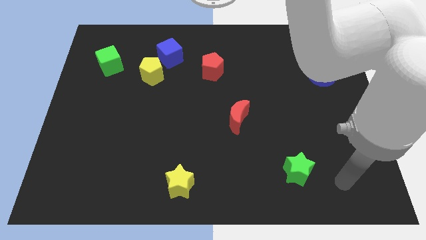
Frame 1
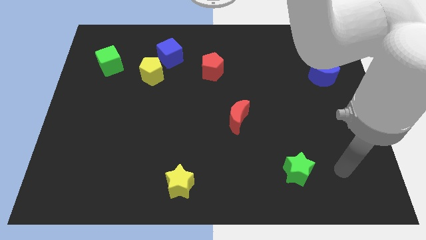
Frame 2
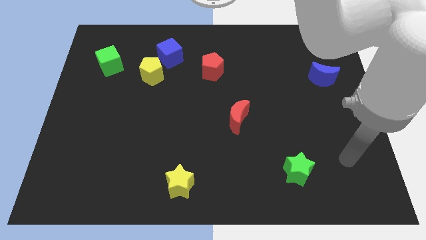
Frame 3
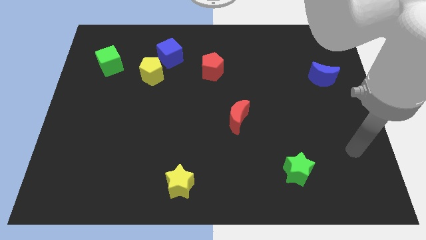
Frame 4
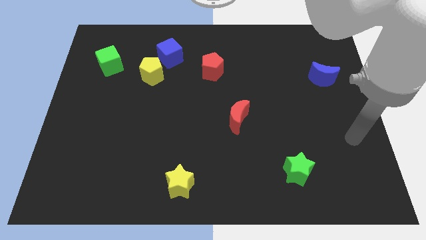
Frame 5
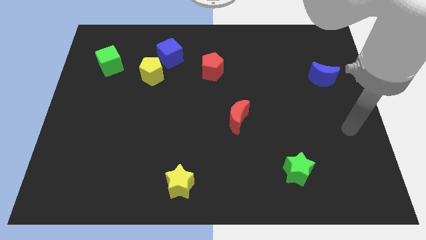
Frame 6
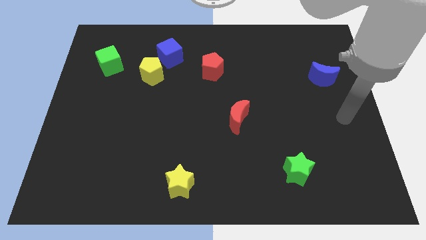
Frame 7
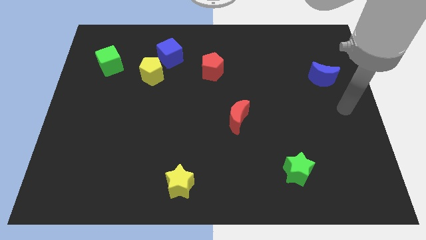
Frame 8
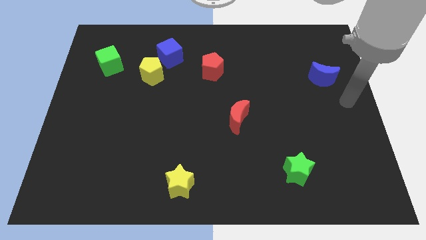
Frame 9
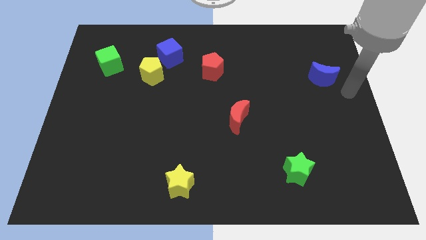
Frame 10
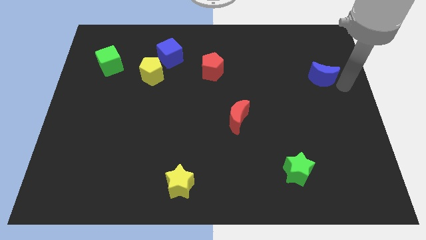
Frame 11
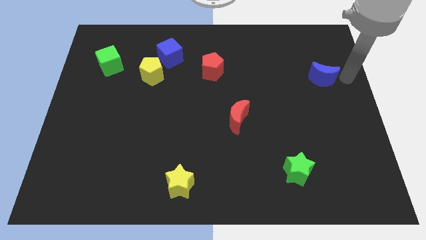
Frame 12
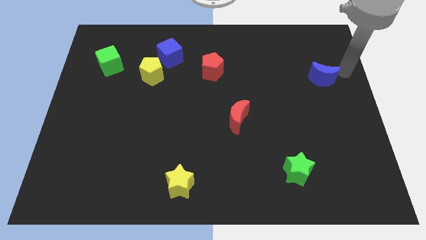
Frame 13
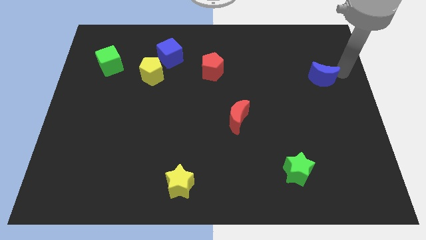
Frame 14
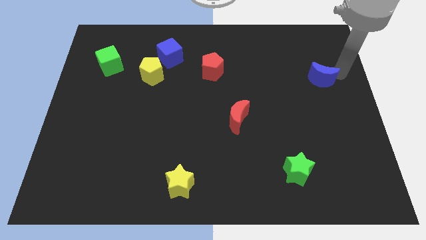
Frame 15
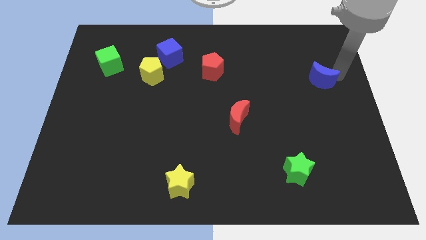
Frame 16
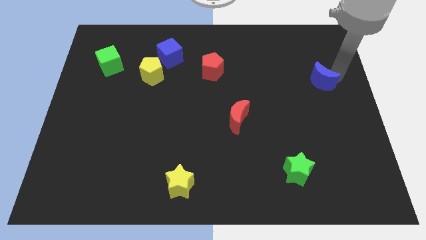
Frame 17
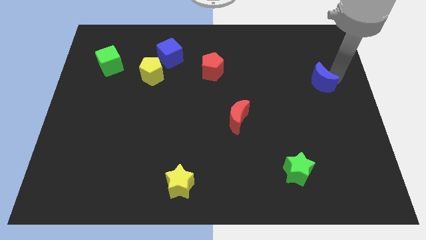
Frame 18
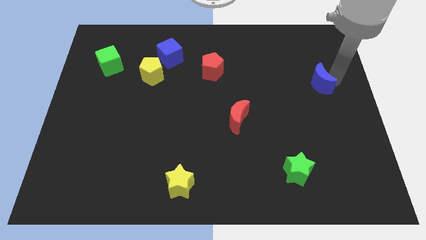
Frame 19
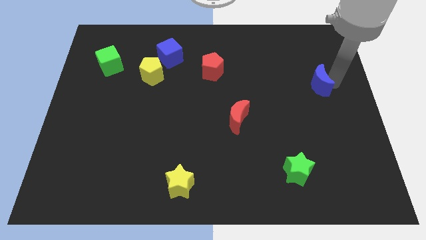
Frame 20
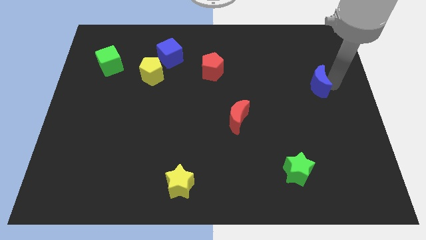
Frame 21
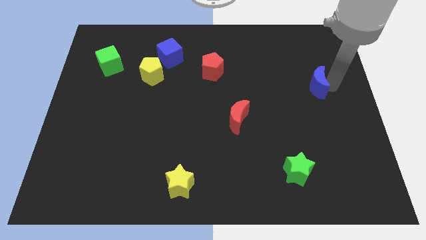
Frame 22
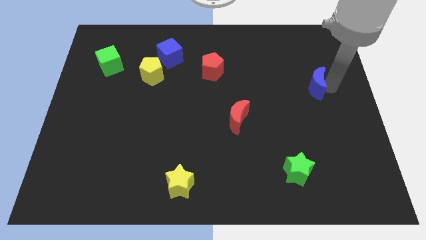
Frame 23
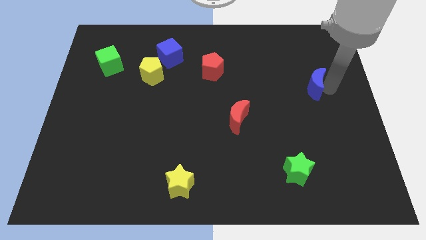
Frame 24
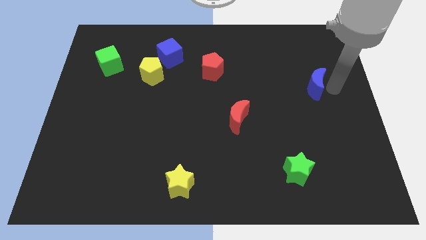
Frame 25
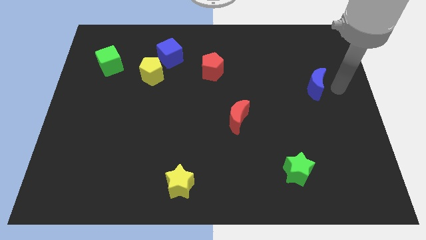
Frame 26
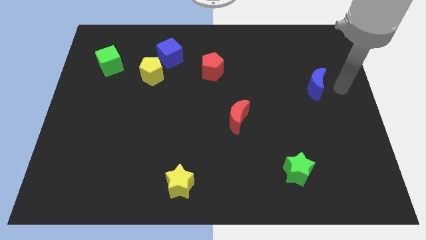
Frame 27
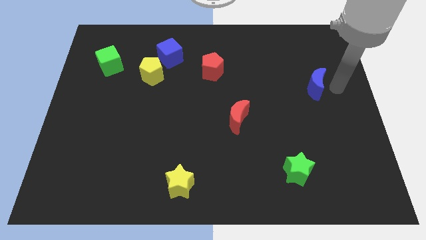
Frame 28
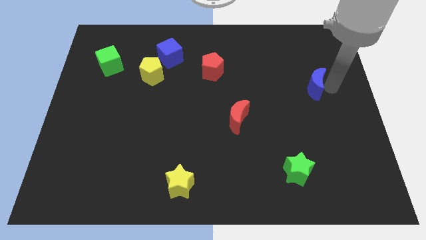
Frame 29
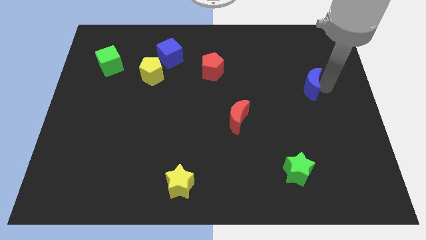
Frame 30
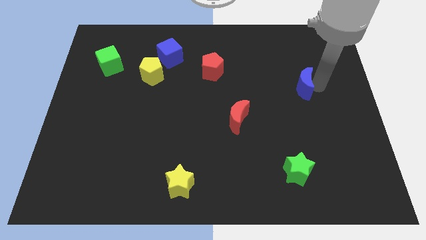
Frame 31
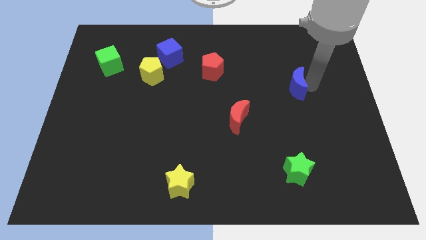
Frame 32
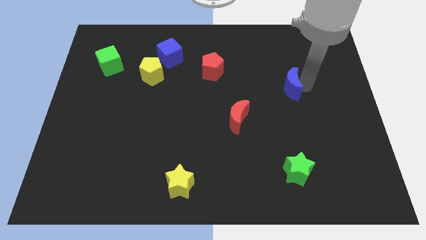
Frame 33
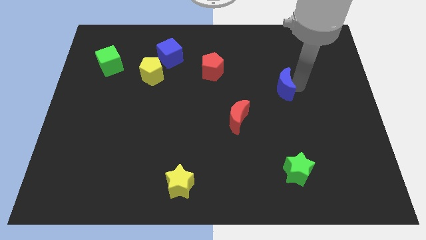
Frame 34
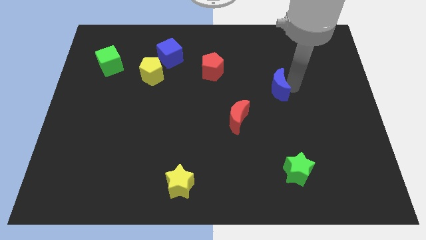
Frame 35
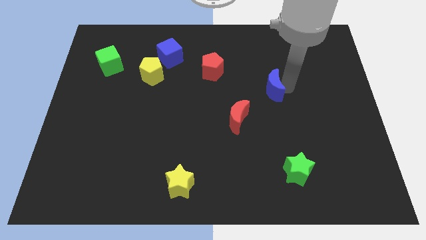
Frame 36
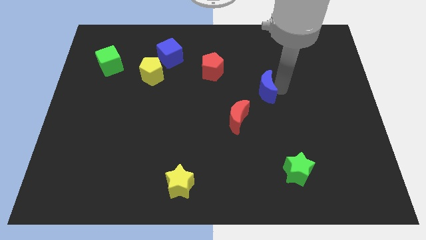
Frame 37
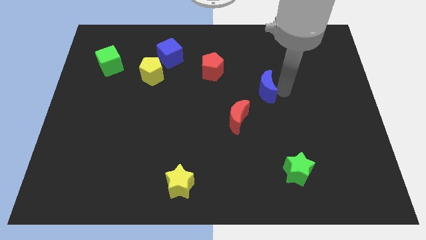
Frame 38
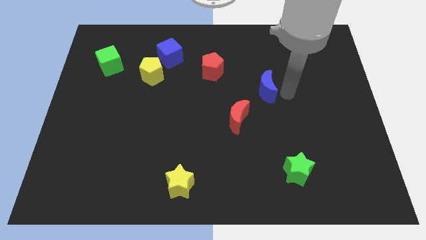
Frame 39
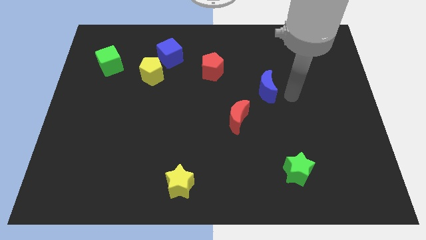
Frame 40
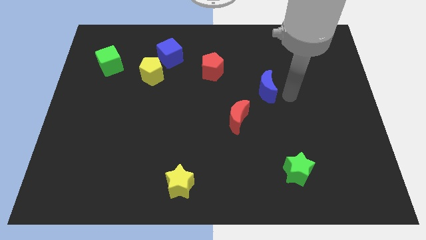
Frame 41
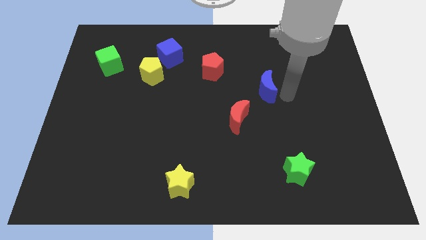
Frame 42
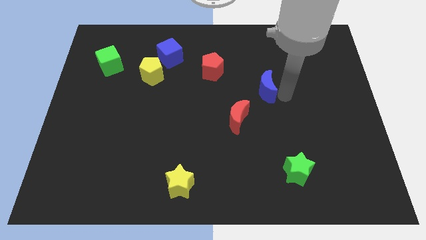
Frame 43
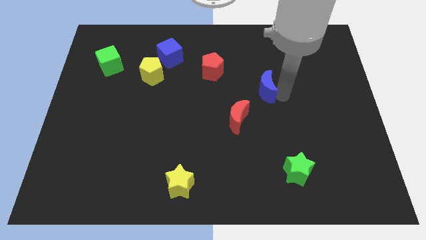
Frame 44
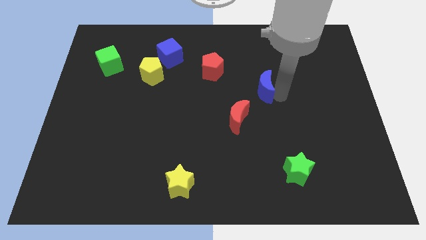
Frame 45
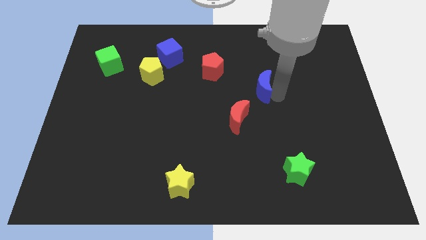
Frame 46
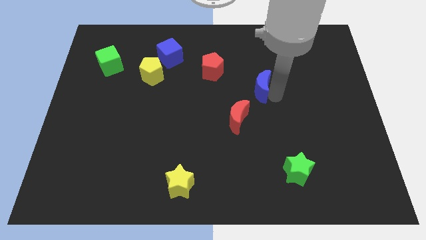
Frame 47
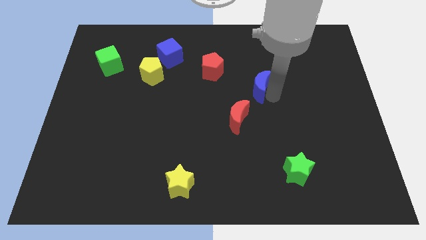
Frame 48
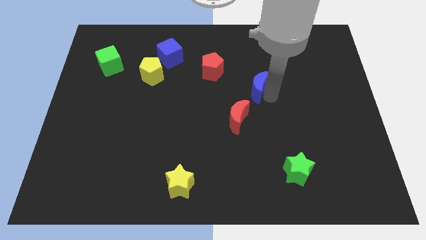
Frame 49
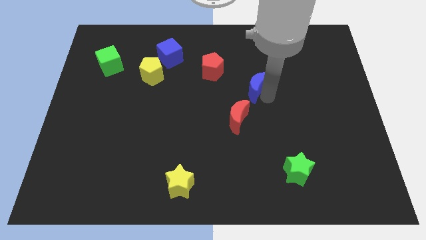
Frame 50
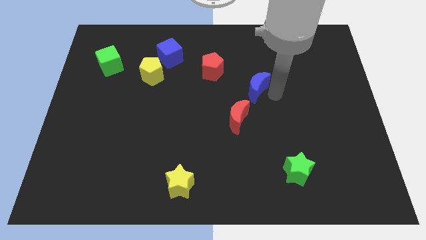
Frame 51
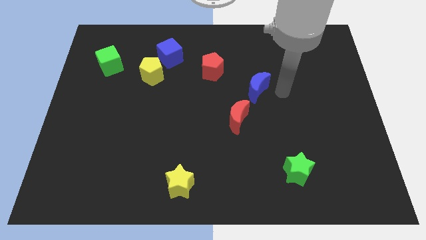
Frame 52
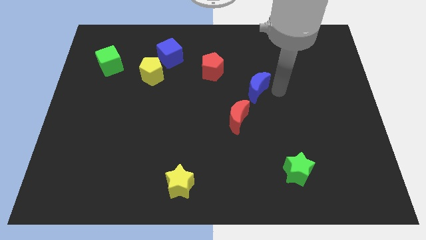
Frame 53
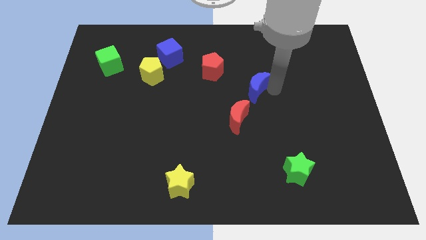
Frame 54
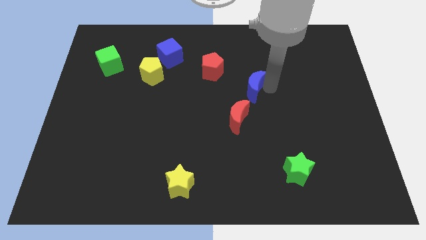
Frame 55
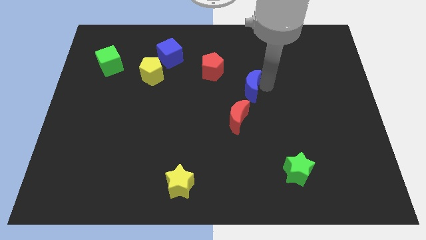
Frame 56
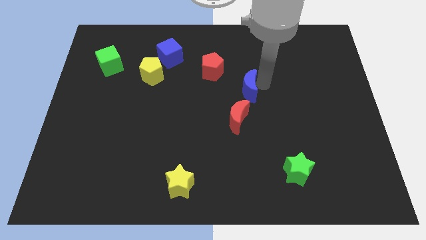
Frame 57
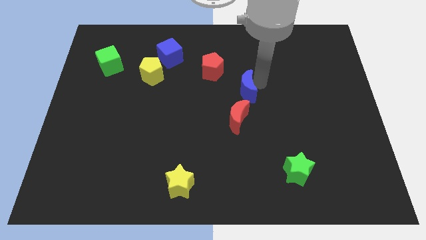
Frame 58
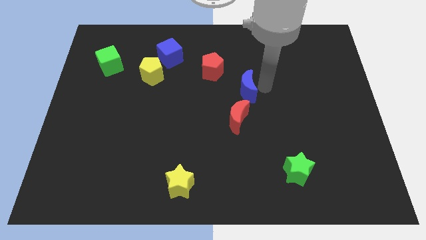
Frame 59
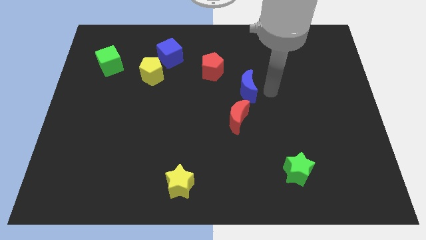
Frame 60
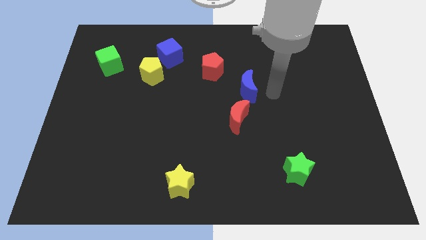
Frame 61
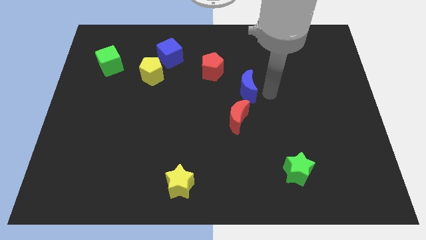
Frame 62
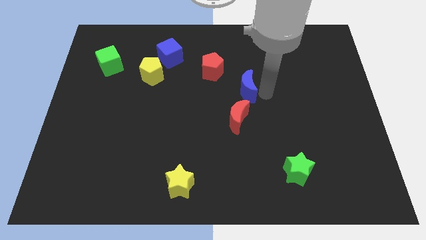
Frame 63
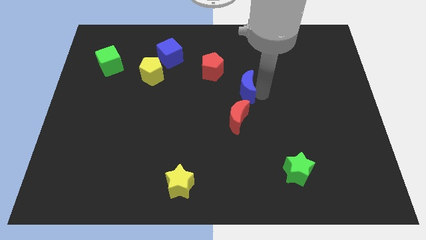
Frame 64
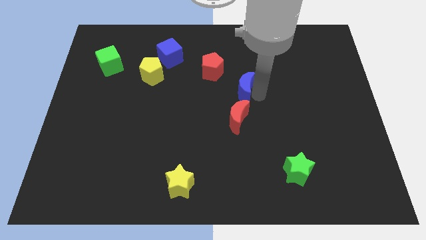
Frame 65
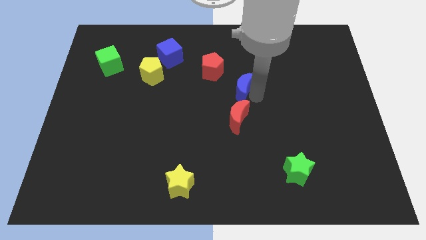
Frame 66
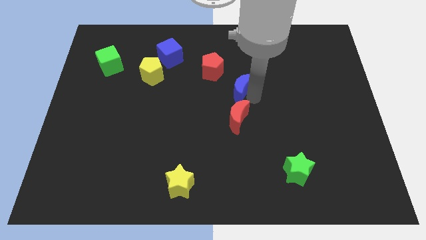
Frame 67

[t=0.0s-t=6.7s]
push the blue moon left

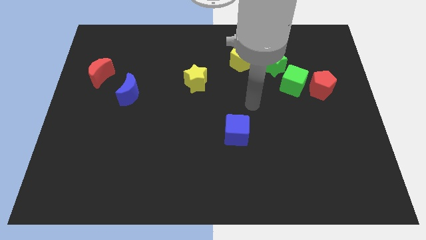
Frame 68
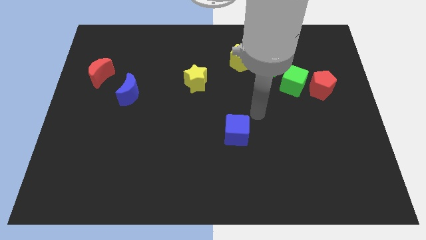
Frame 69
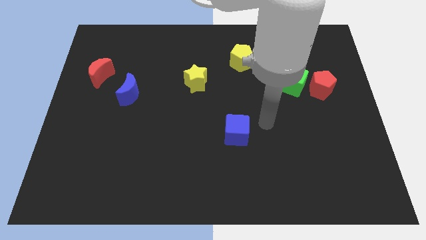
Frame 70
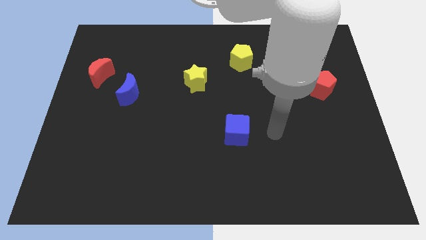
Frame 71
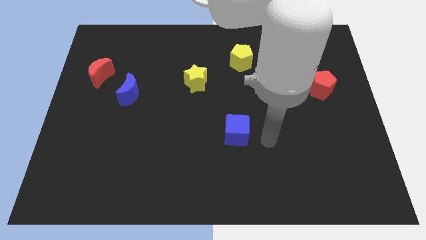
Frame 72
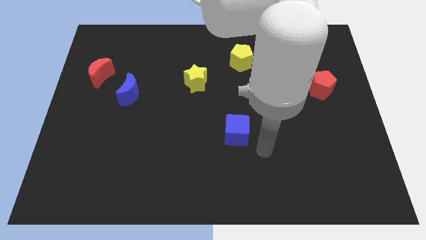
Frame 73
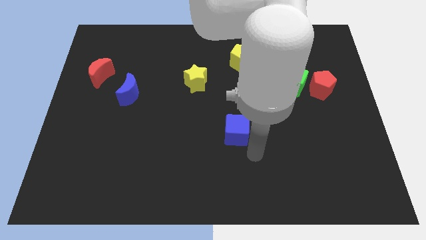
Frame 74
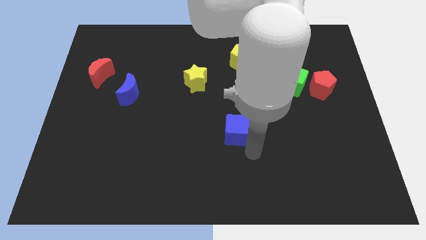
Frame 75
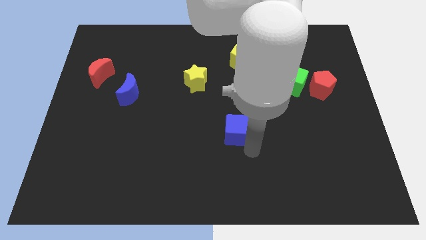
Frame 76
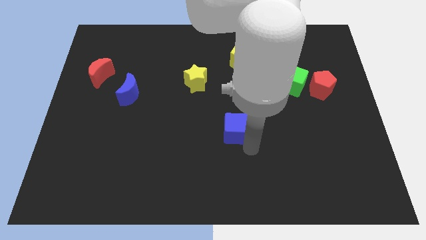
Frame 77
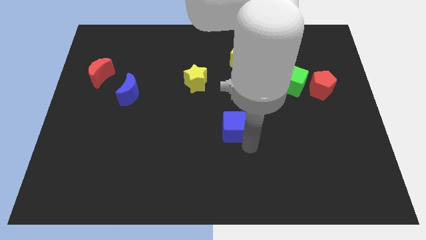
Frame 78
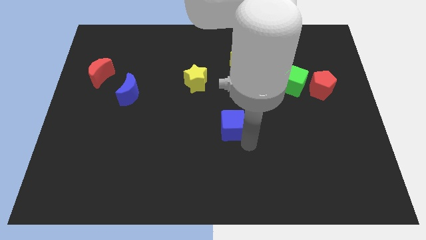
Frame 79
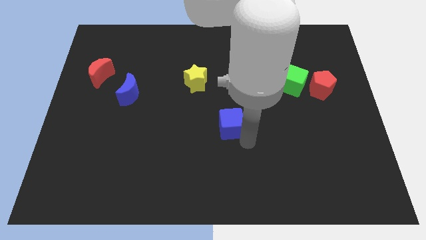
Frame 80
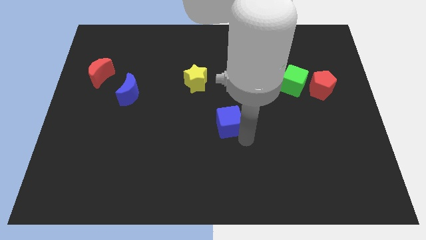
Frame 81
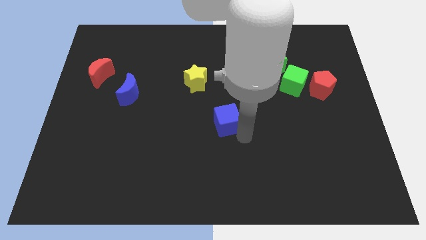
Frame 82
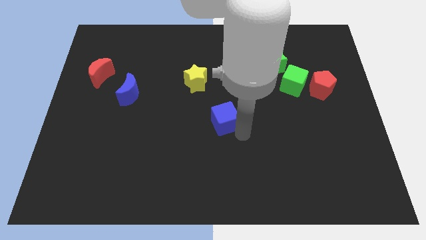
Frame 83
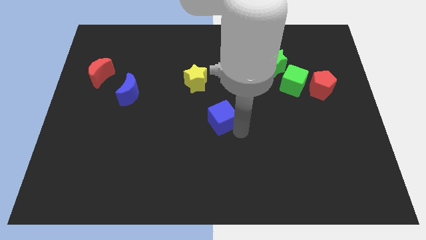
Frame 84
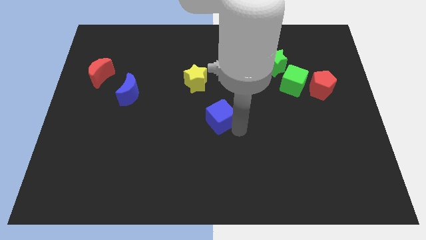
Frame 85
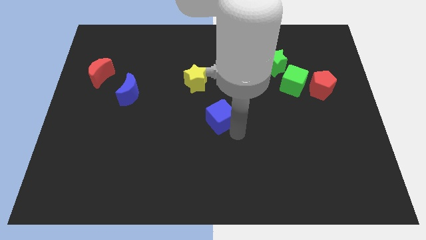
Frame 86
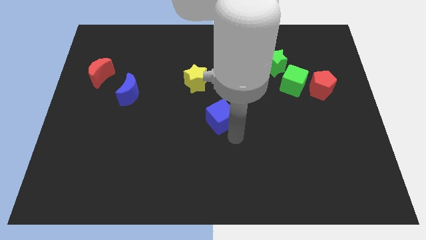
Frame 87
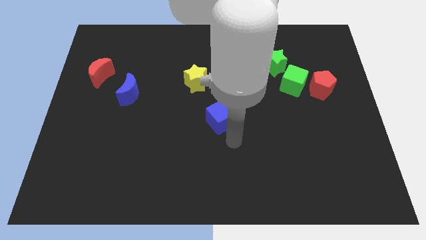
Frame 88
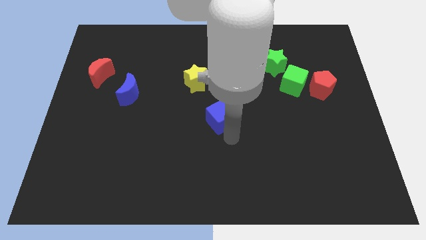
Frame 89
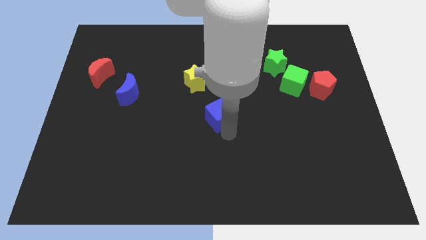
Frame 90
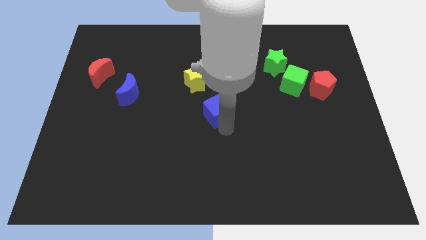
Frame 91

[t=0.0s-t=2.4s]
move the blue cube a little bit diagonally up and to the left
